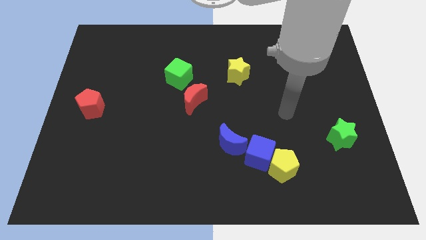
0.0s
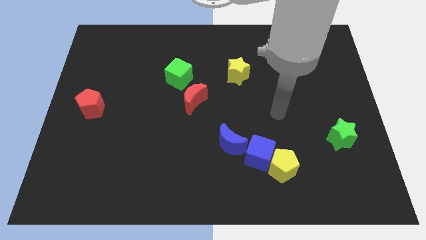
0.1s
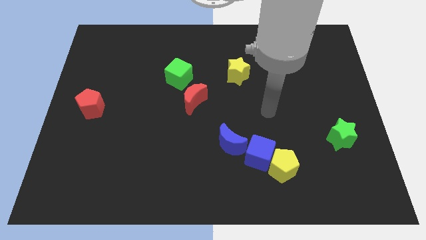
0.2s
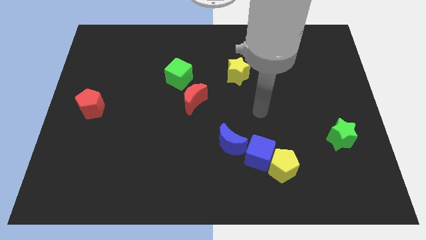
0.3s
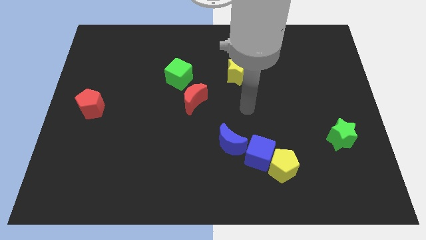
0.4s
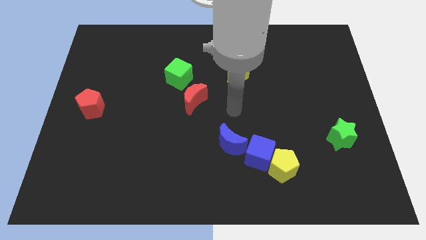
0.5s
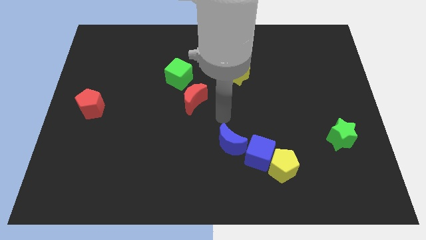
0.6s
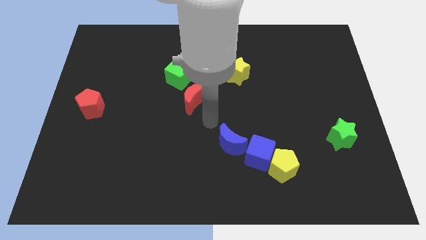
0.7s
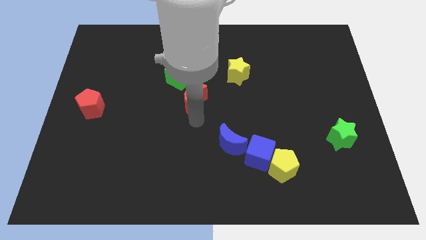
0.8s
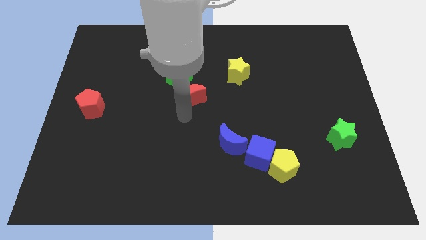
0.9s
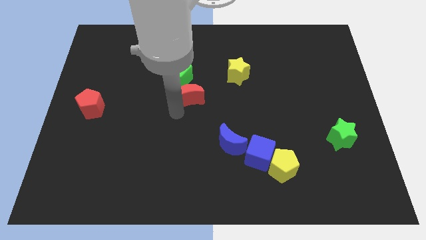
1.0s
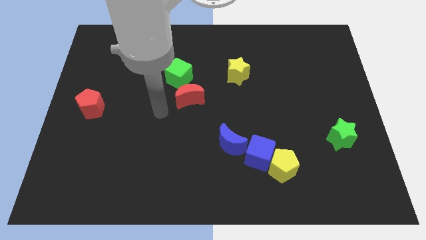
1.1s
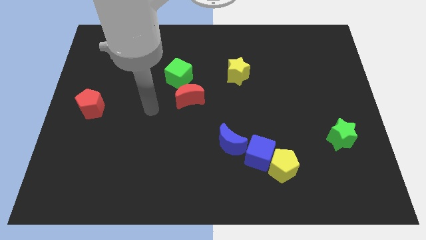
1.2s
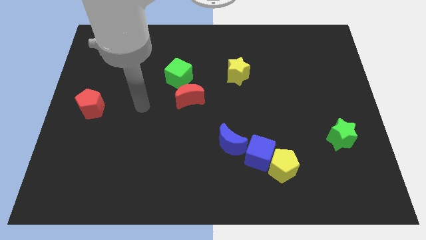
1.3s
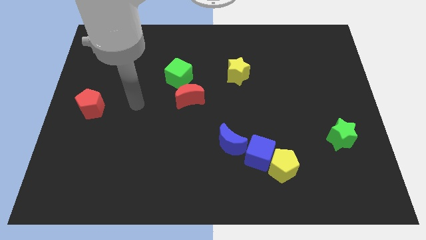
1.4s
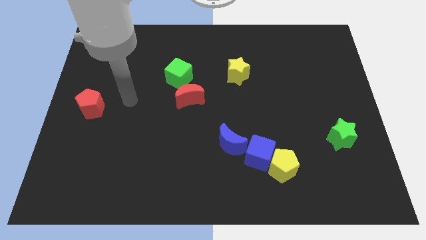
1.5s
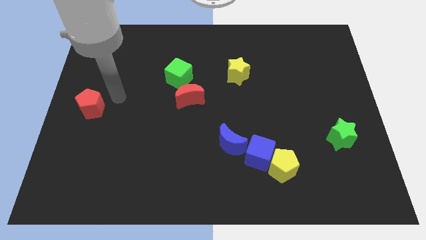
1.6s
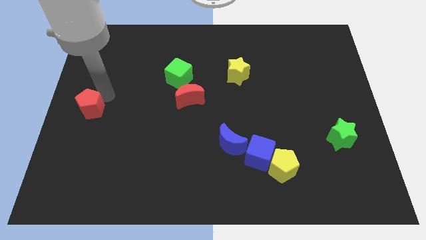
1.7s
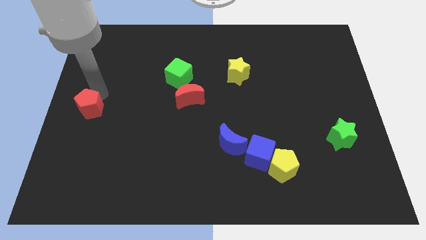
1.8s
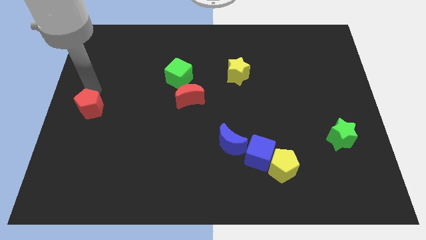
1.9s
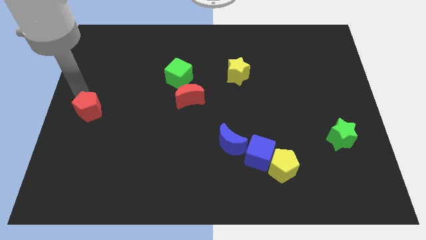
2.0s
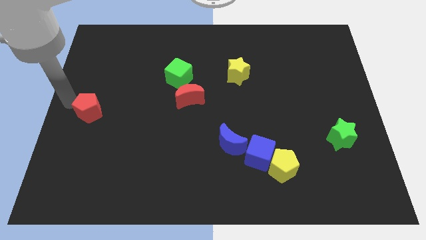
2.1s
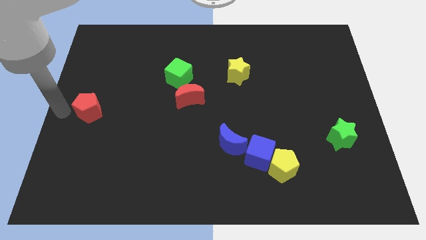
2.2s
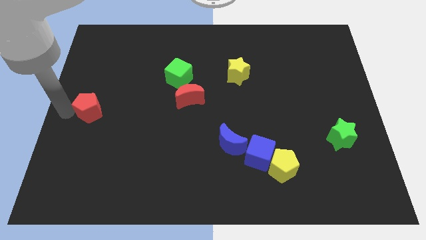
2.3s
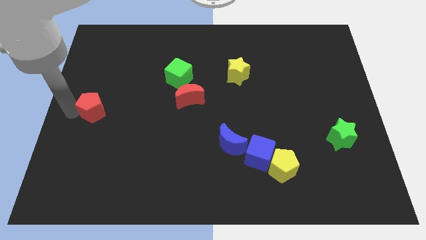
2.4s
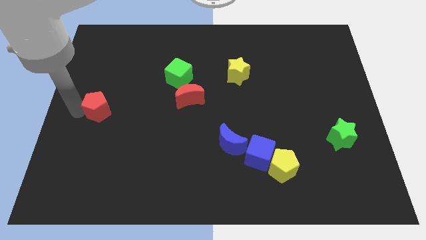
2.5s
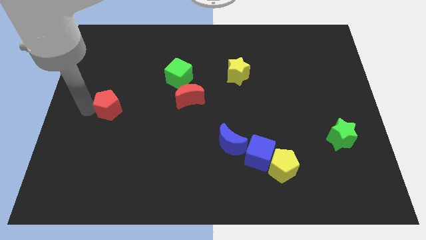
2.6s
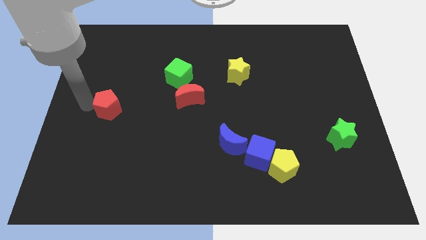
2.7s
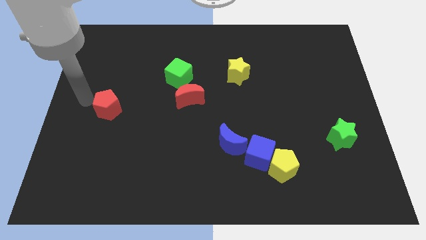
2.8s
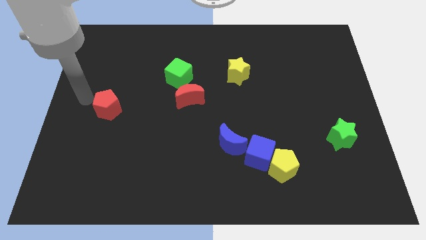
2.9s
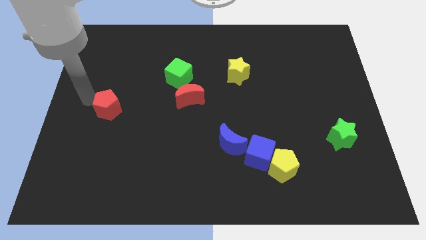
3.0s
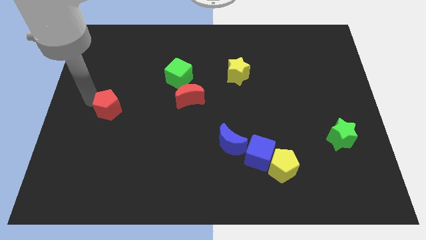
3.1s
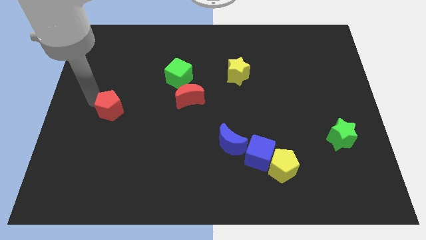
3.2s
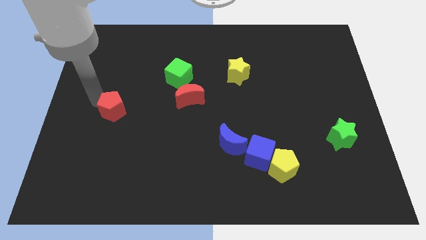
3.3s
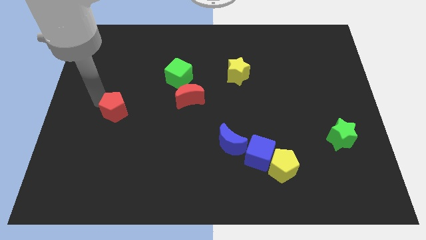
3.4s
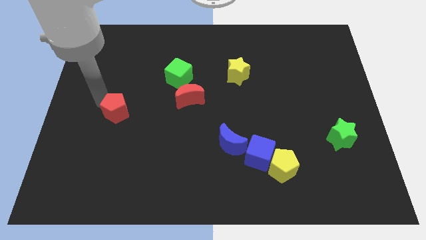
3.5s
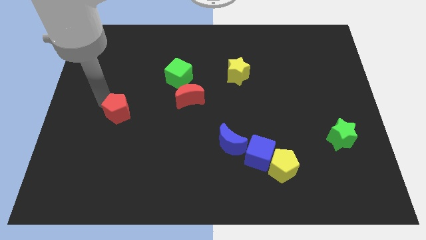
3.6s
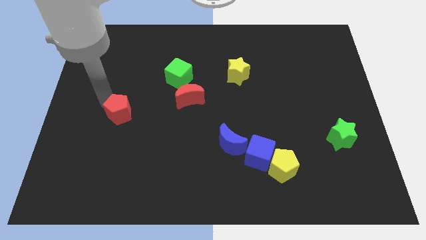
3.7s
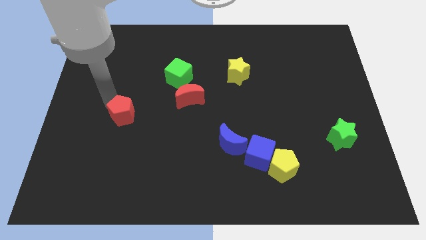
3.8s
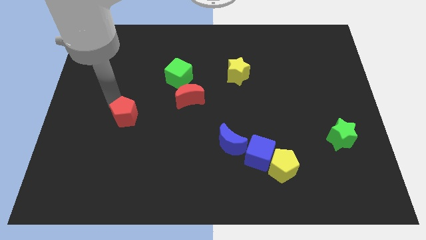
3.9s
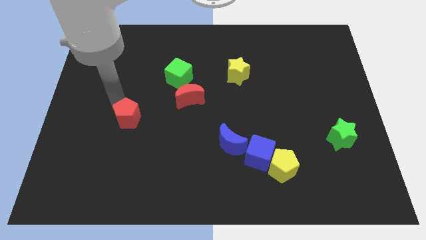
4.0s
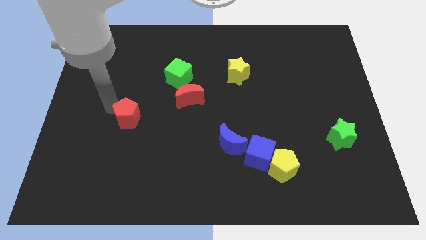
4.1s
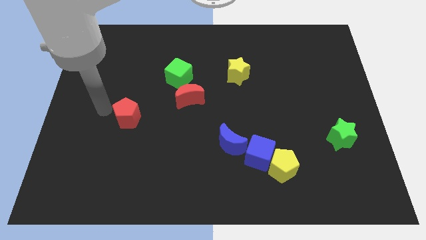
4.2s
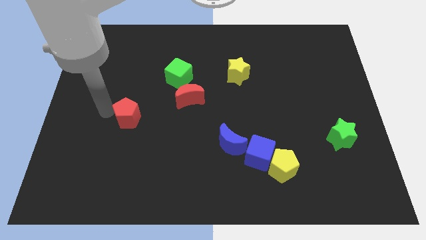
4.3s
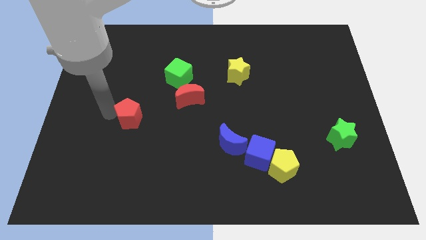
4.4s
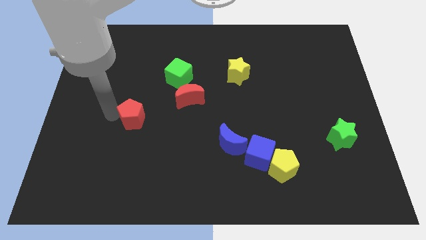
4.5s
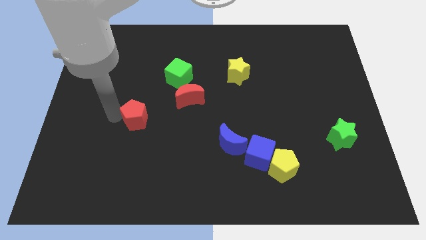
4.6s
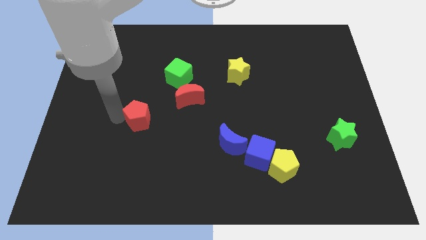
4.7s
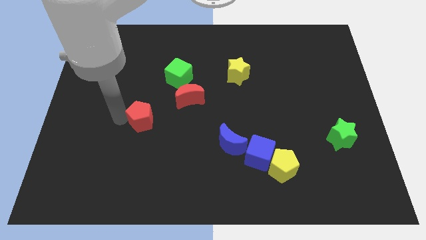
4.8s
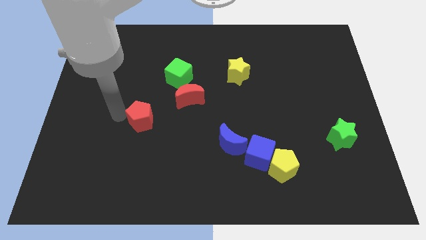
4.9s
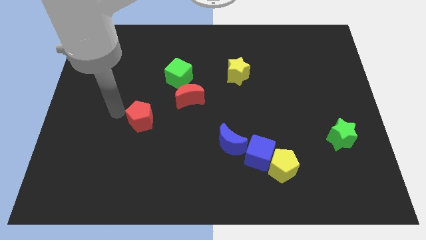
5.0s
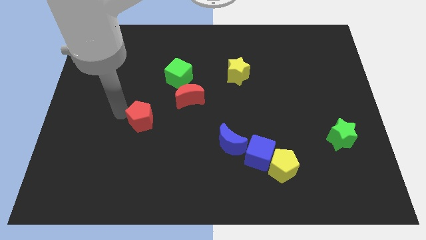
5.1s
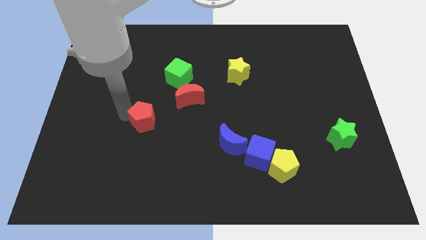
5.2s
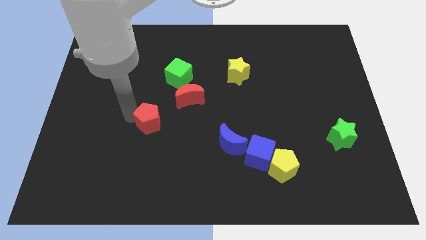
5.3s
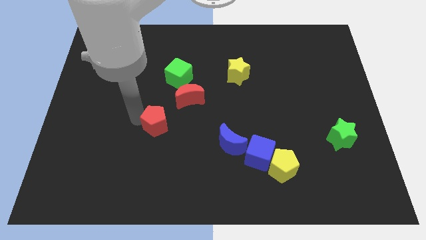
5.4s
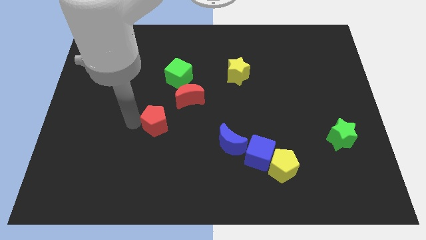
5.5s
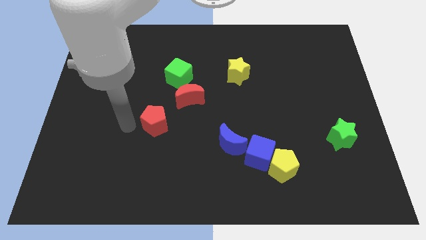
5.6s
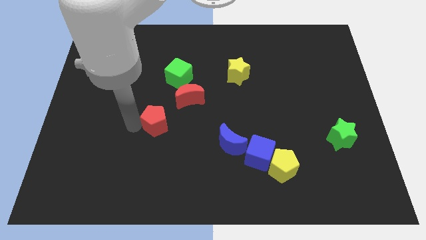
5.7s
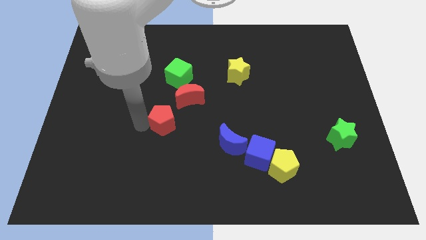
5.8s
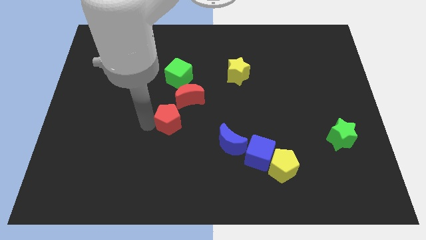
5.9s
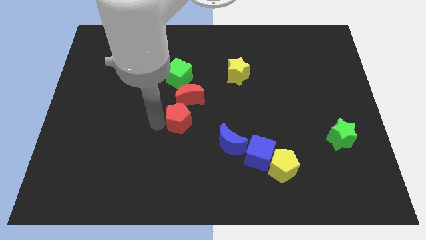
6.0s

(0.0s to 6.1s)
move the red pentagon to the right

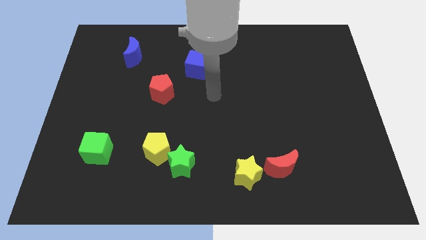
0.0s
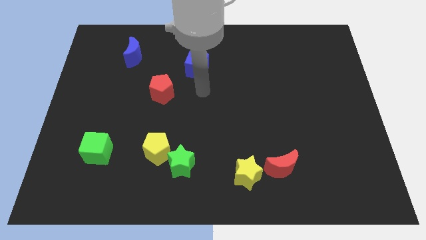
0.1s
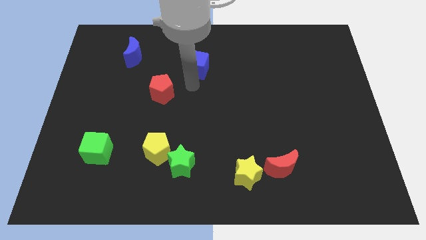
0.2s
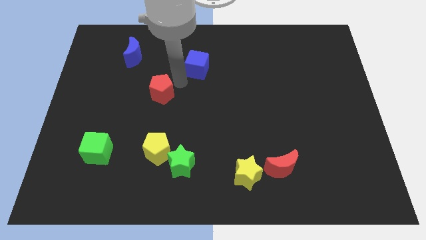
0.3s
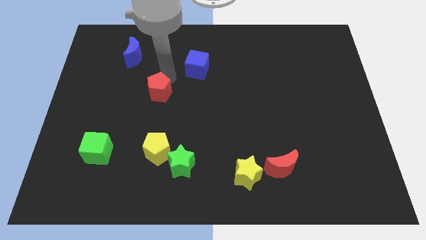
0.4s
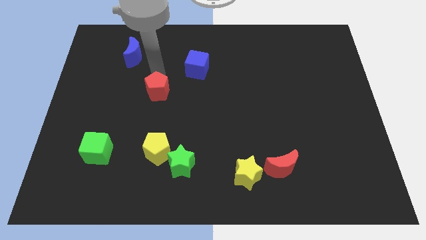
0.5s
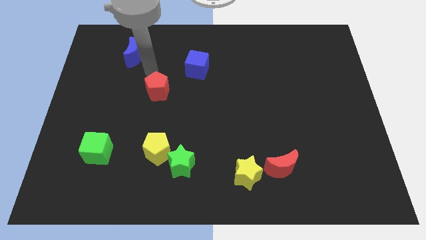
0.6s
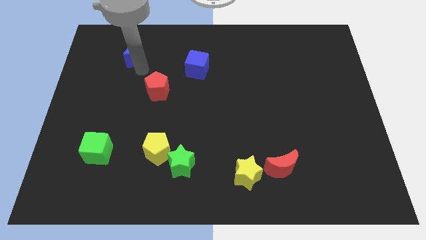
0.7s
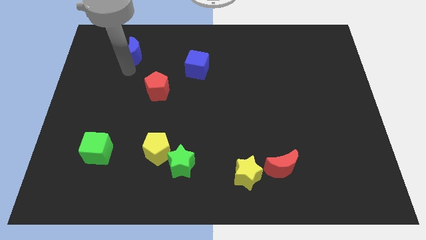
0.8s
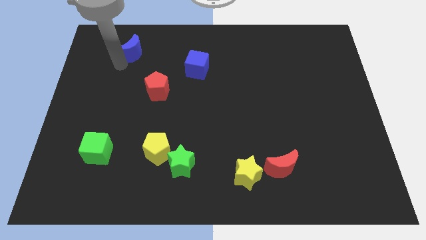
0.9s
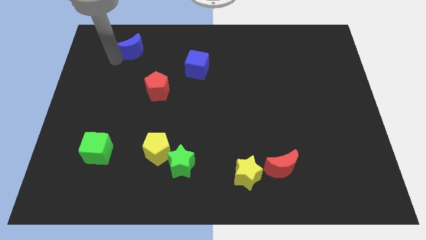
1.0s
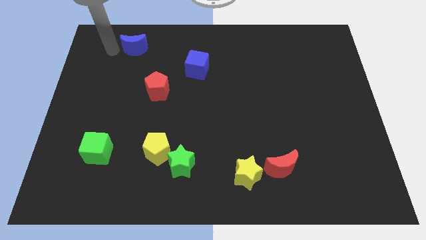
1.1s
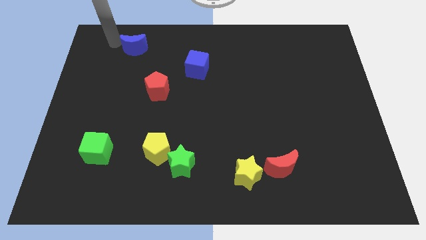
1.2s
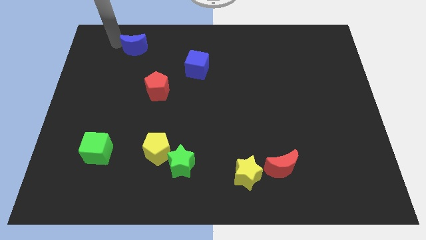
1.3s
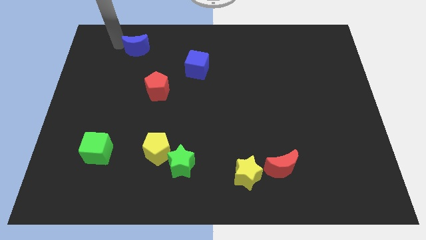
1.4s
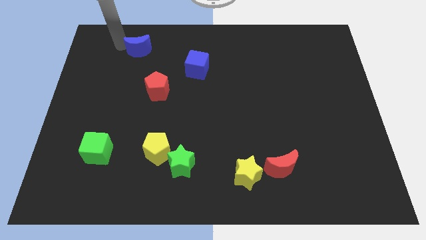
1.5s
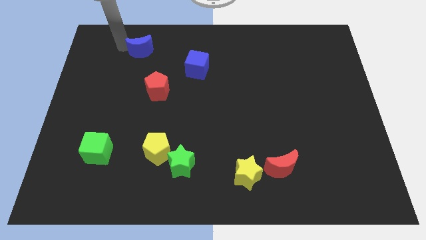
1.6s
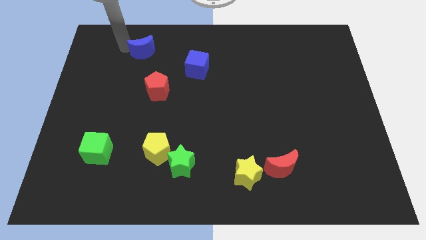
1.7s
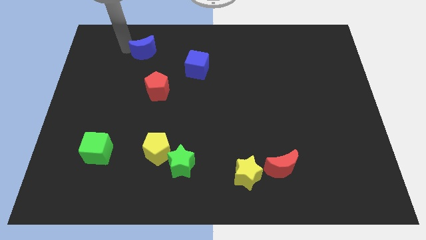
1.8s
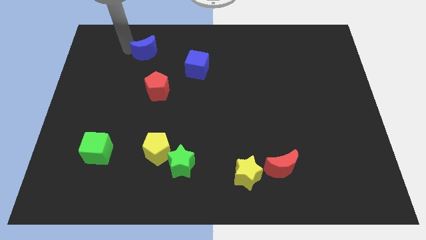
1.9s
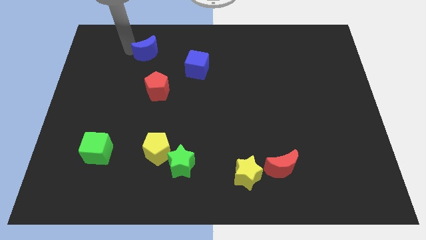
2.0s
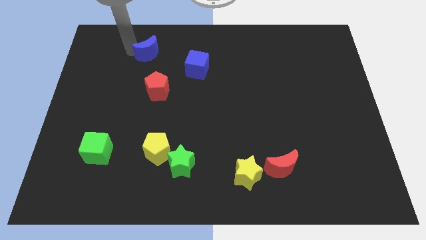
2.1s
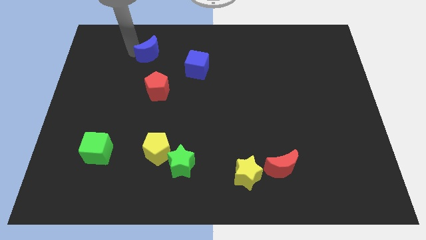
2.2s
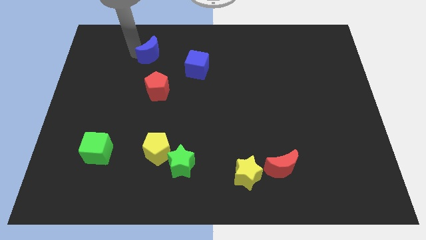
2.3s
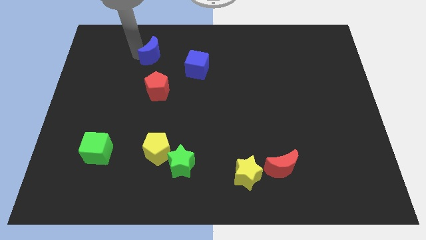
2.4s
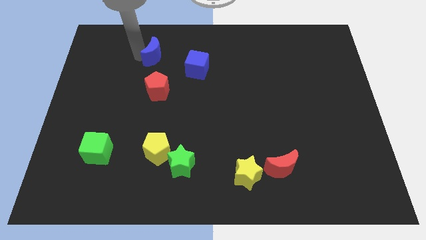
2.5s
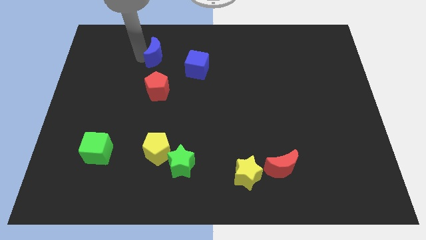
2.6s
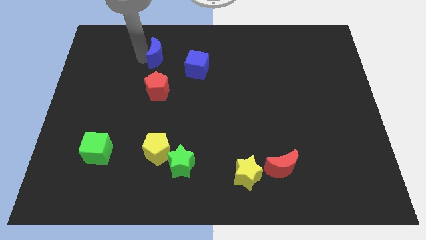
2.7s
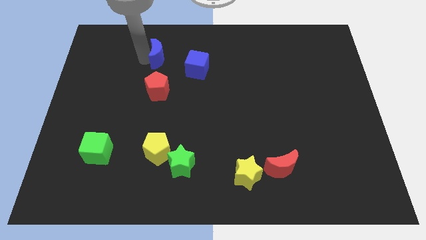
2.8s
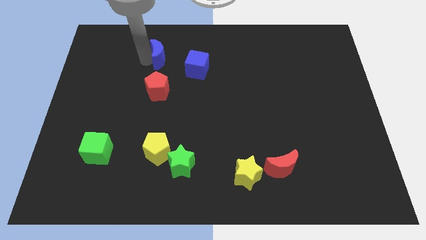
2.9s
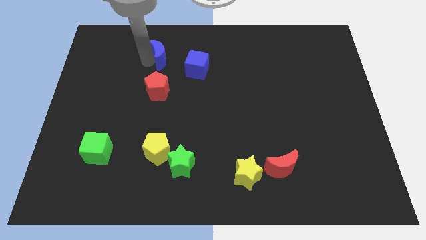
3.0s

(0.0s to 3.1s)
push the blue moon slightly to the right
